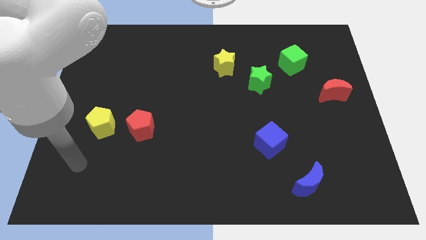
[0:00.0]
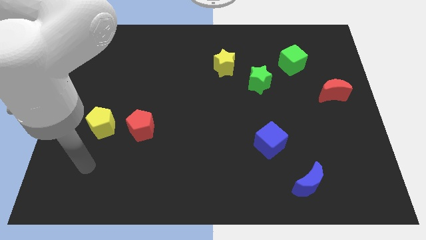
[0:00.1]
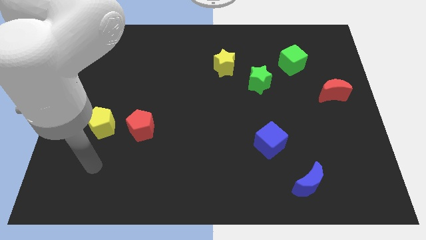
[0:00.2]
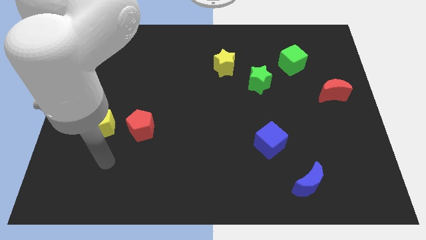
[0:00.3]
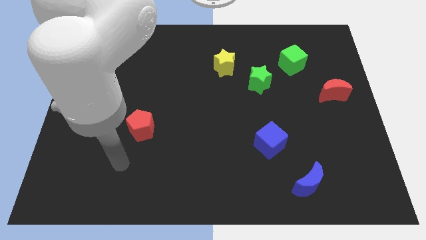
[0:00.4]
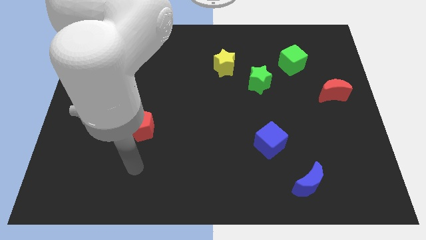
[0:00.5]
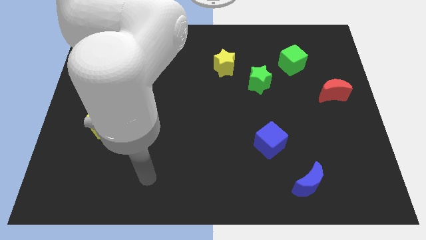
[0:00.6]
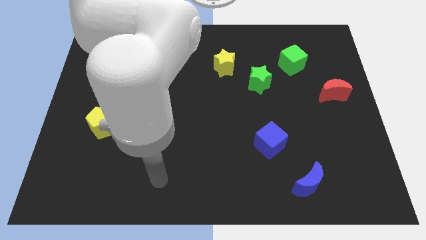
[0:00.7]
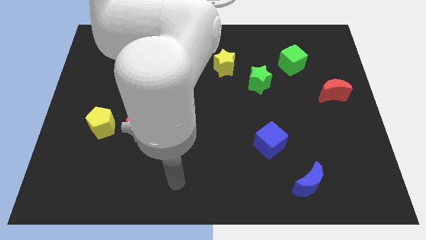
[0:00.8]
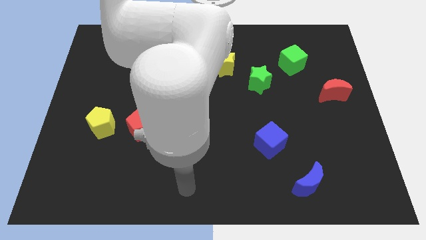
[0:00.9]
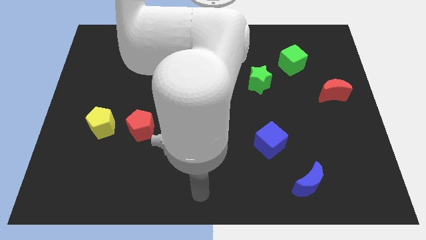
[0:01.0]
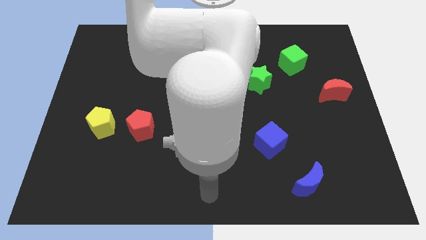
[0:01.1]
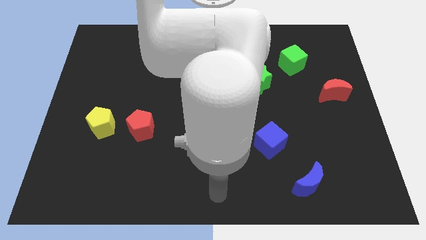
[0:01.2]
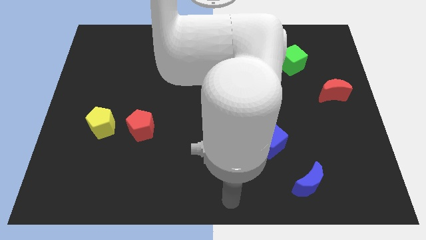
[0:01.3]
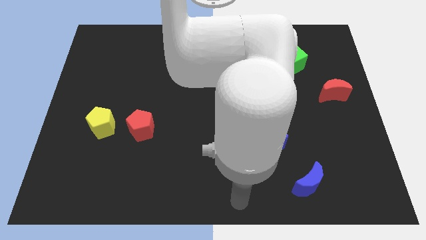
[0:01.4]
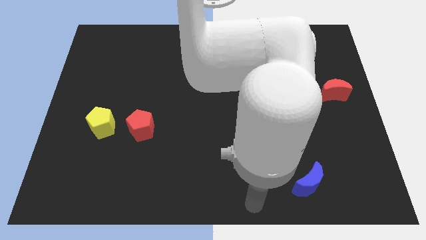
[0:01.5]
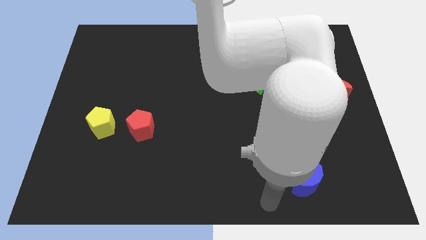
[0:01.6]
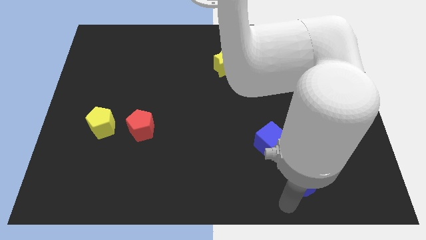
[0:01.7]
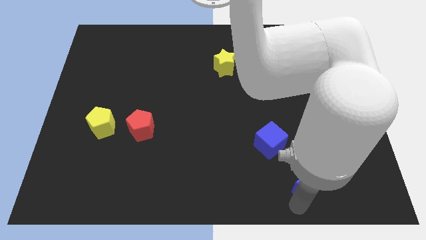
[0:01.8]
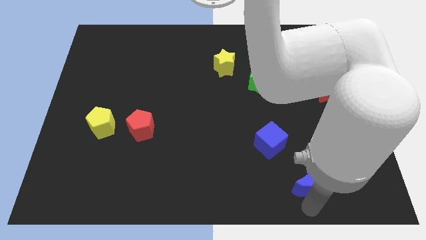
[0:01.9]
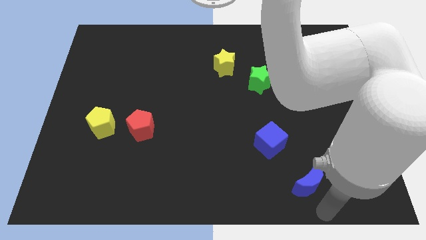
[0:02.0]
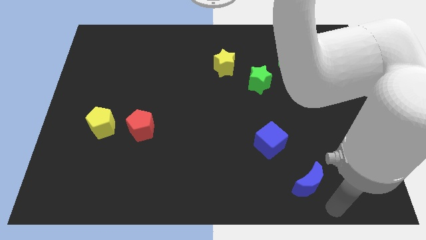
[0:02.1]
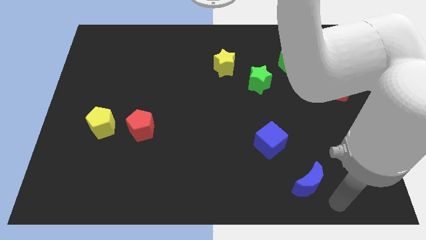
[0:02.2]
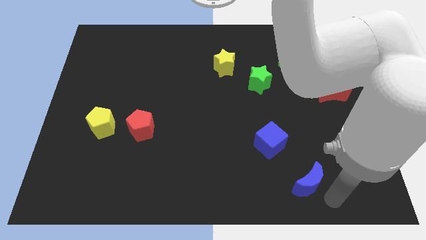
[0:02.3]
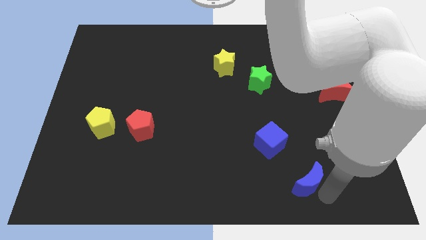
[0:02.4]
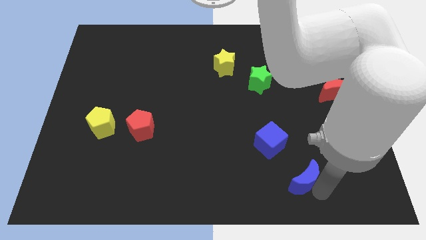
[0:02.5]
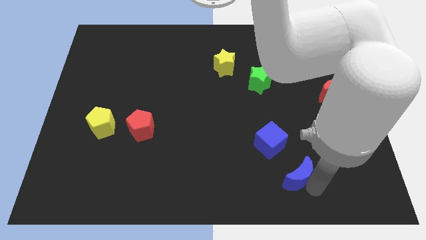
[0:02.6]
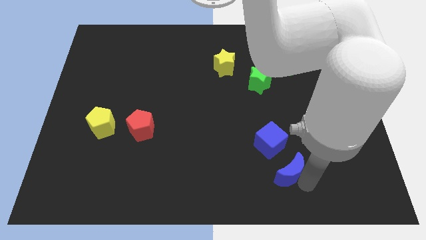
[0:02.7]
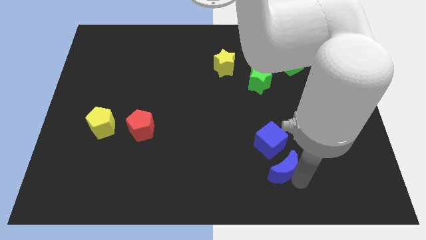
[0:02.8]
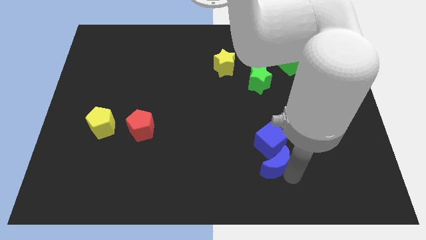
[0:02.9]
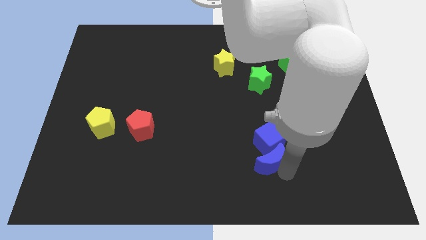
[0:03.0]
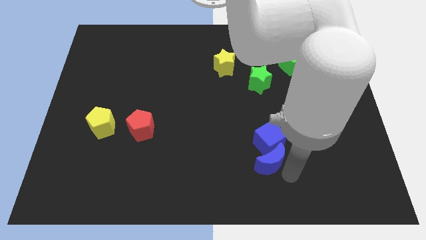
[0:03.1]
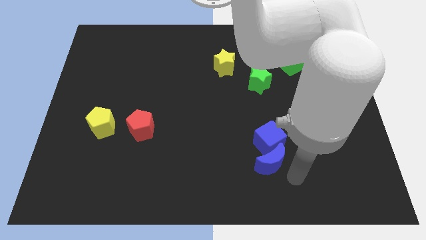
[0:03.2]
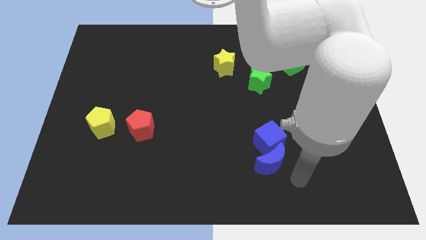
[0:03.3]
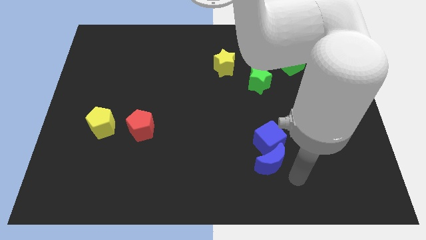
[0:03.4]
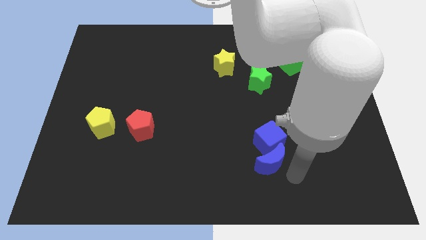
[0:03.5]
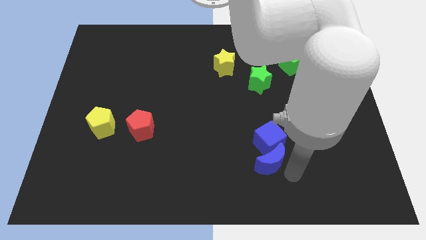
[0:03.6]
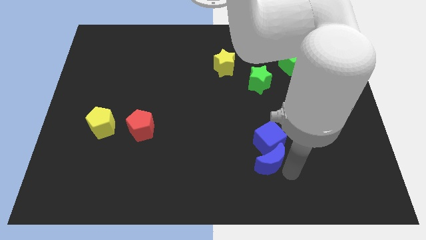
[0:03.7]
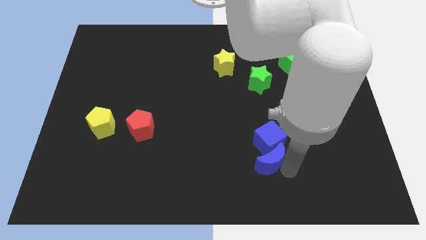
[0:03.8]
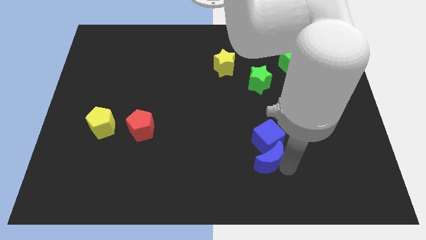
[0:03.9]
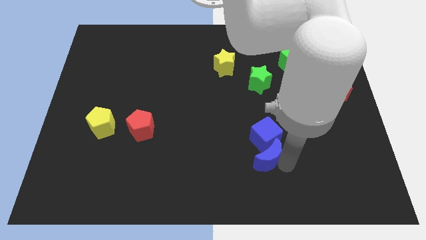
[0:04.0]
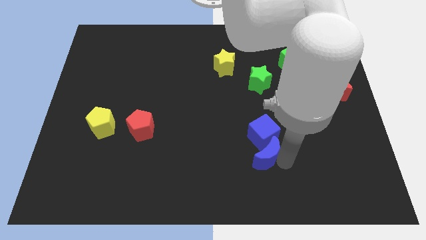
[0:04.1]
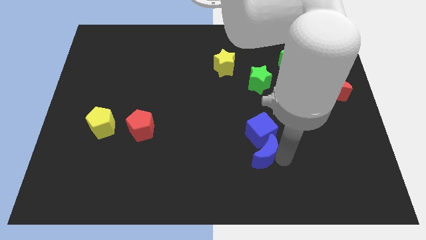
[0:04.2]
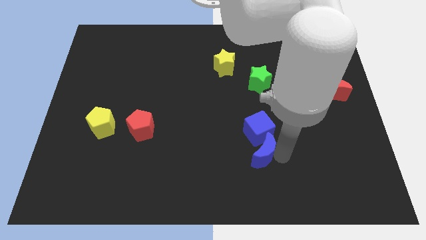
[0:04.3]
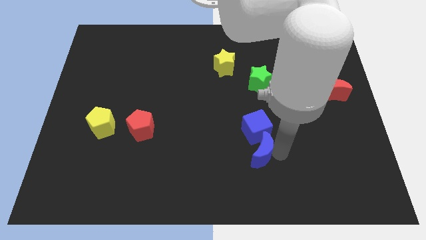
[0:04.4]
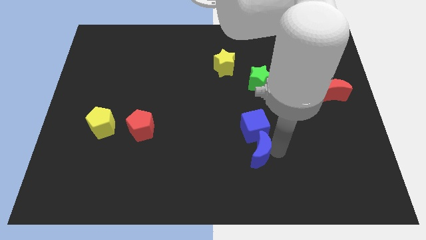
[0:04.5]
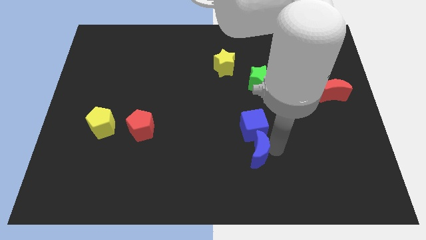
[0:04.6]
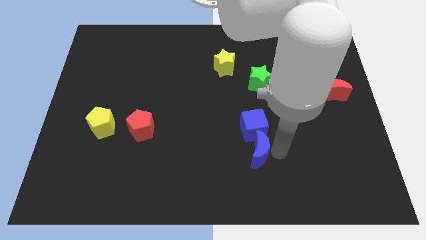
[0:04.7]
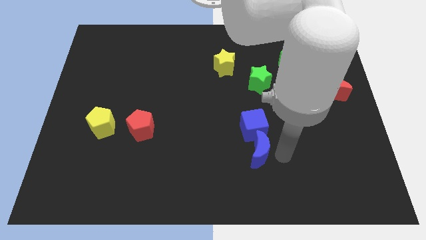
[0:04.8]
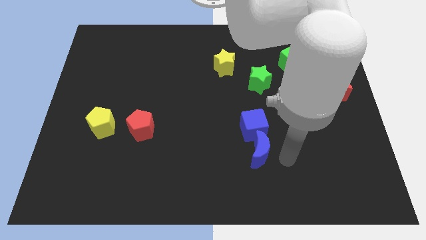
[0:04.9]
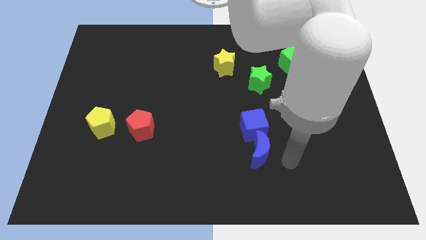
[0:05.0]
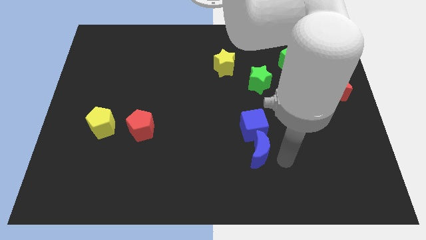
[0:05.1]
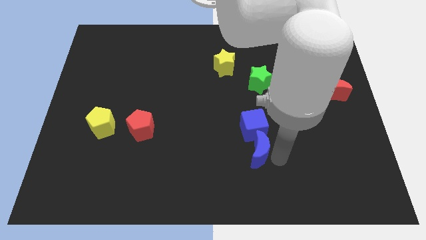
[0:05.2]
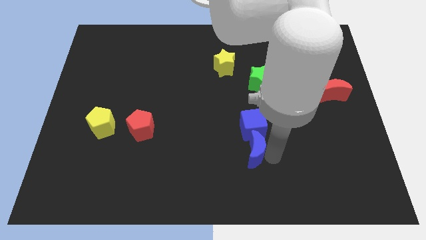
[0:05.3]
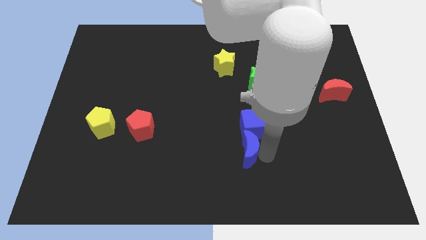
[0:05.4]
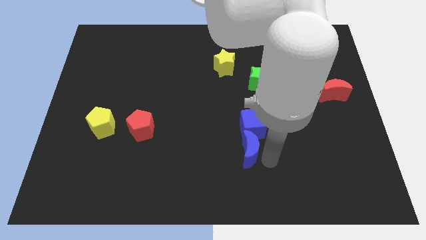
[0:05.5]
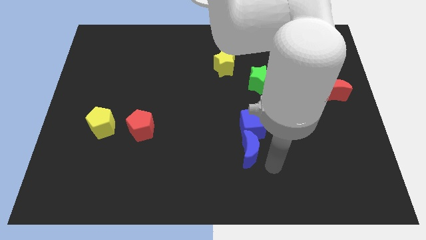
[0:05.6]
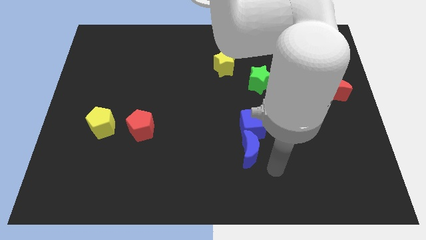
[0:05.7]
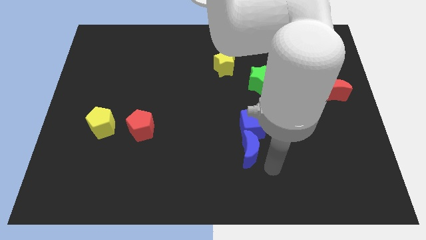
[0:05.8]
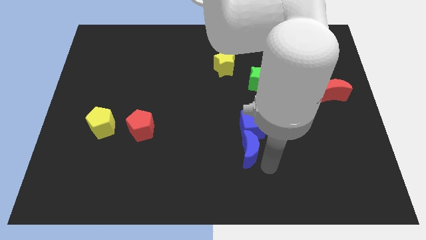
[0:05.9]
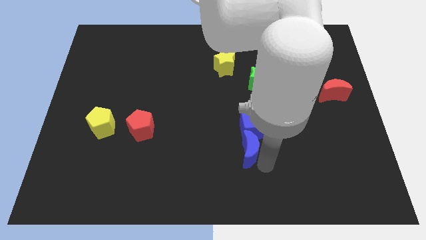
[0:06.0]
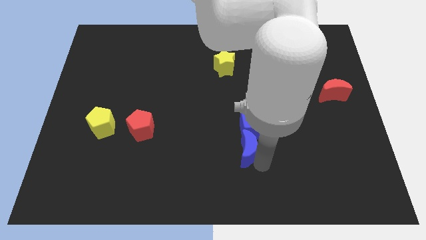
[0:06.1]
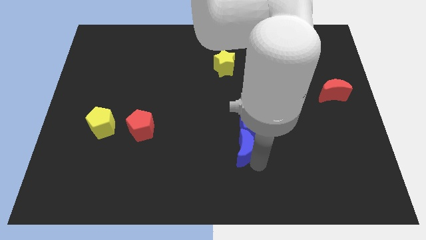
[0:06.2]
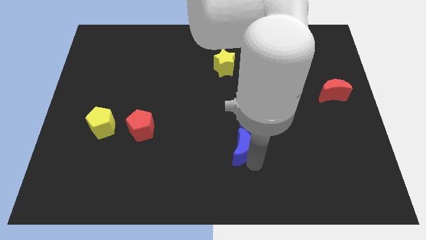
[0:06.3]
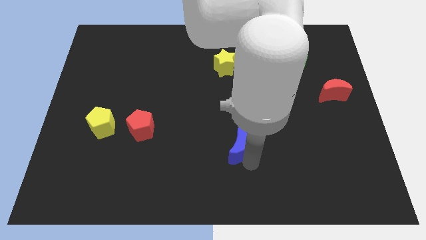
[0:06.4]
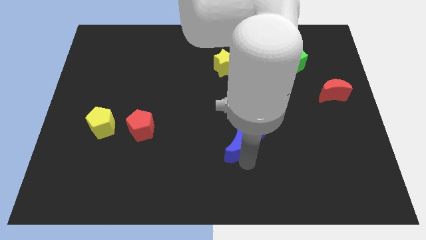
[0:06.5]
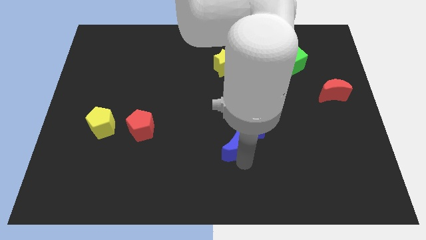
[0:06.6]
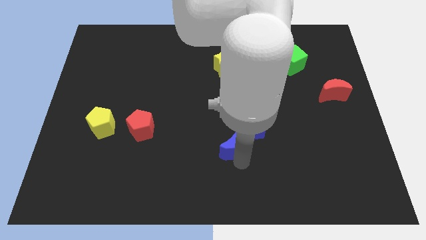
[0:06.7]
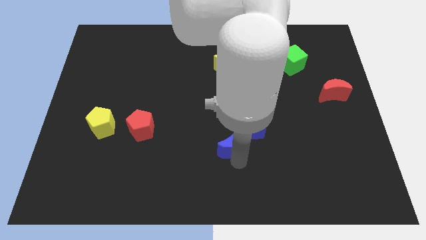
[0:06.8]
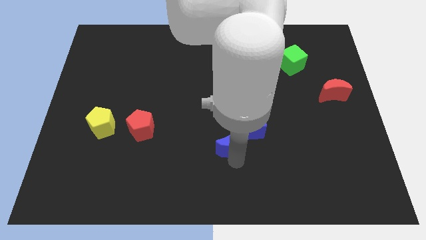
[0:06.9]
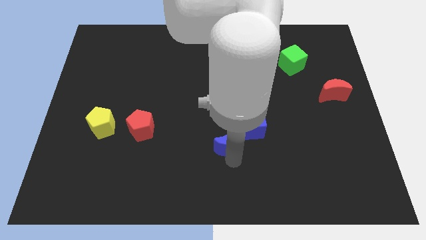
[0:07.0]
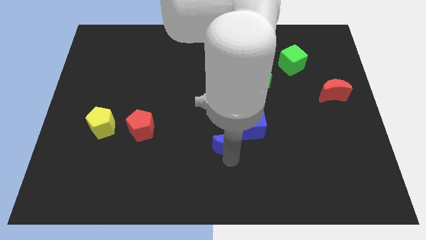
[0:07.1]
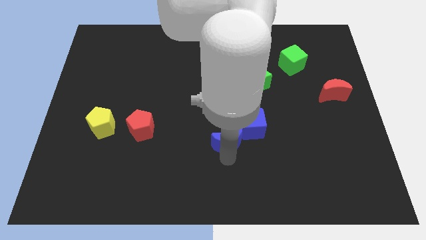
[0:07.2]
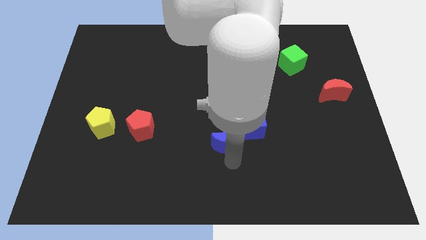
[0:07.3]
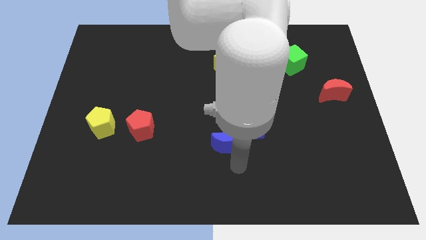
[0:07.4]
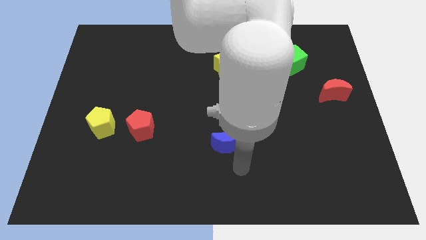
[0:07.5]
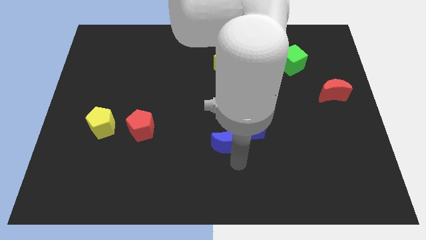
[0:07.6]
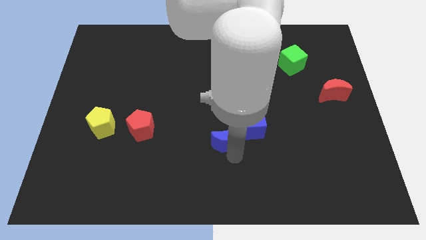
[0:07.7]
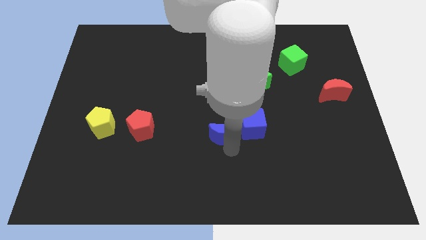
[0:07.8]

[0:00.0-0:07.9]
slide the blue moon upwards and left diagonally

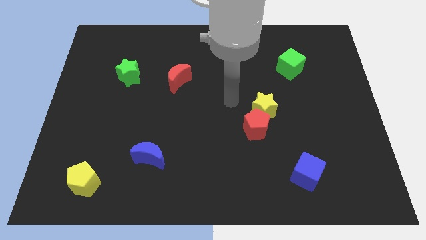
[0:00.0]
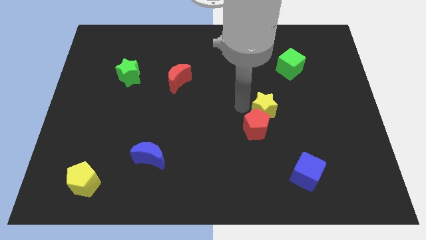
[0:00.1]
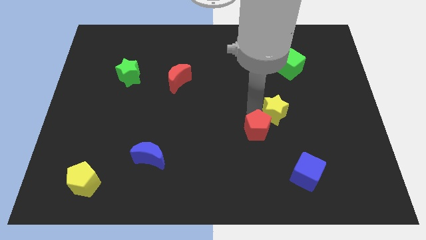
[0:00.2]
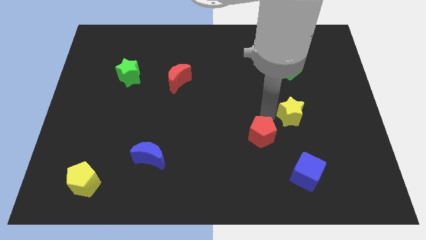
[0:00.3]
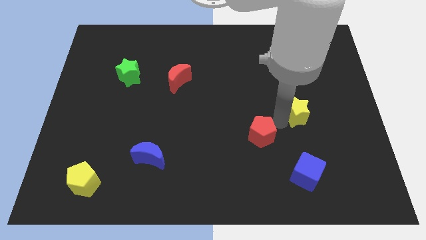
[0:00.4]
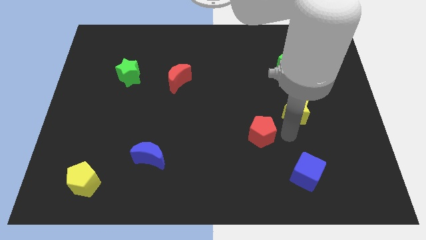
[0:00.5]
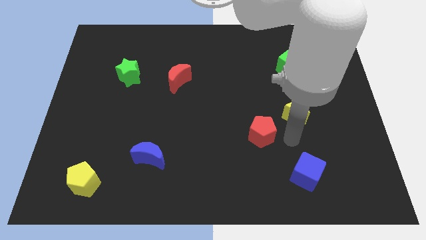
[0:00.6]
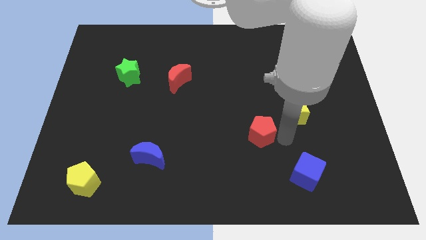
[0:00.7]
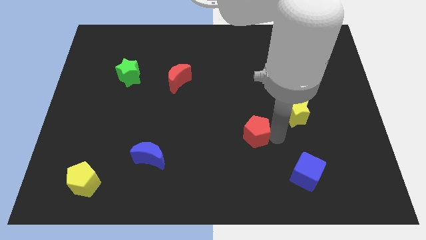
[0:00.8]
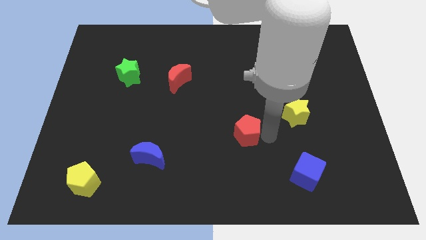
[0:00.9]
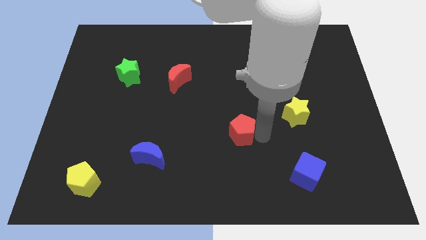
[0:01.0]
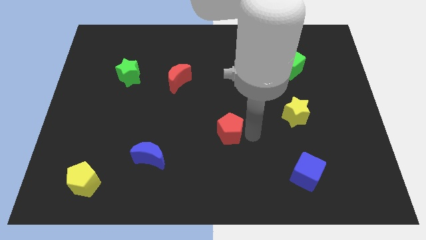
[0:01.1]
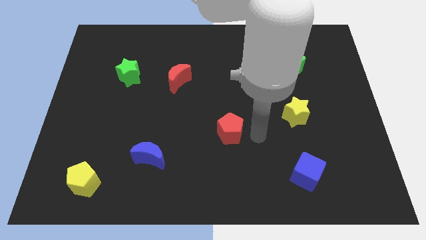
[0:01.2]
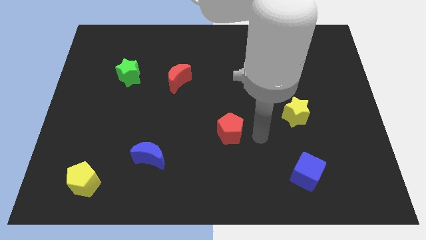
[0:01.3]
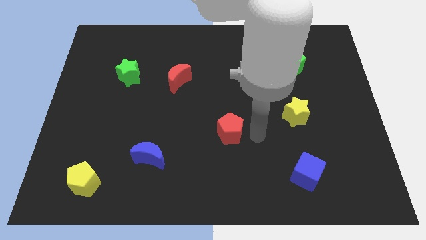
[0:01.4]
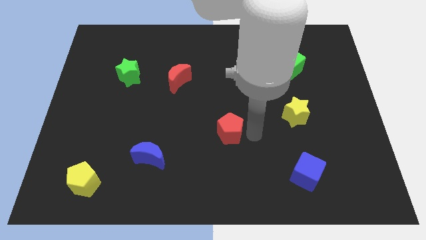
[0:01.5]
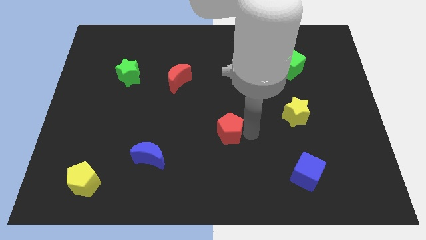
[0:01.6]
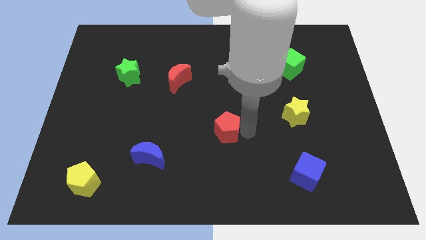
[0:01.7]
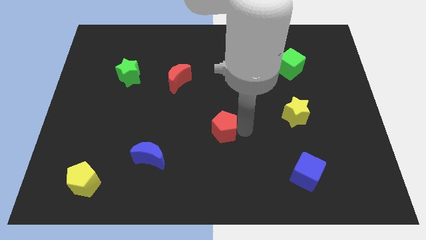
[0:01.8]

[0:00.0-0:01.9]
slide the red pentagon to the left a bit
